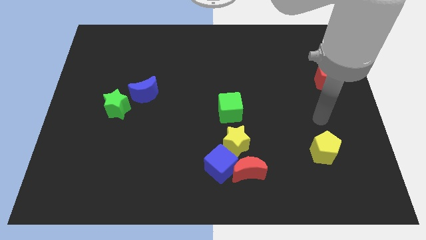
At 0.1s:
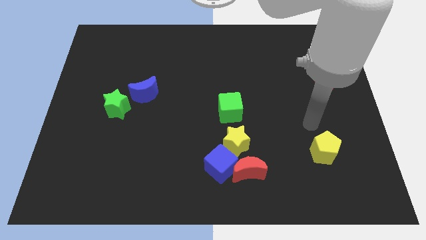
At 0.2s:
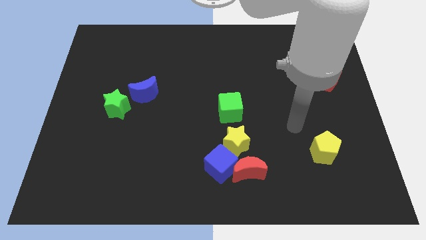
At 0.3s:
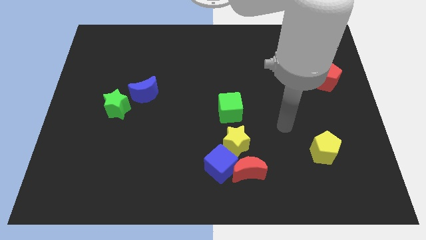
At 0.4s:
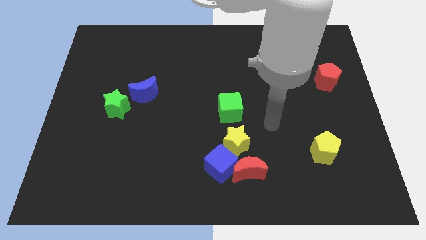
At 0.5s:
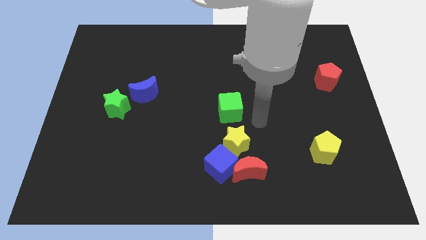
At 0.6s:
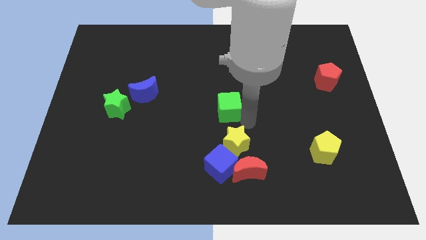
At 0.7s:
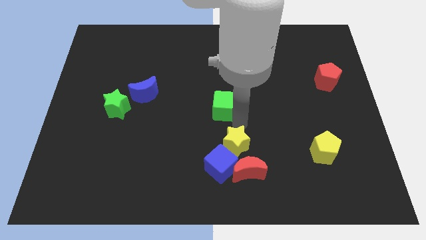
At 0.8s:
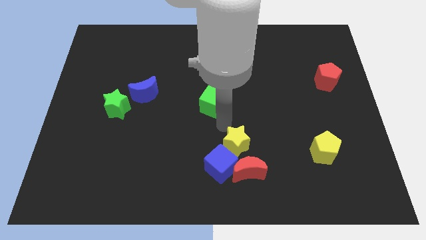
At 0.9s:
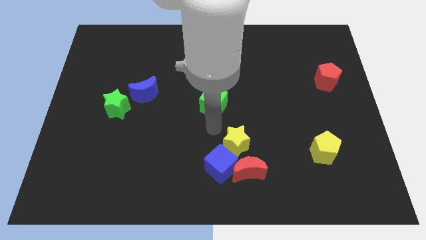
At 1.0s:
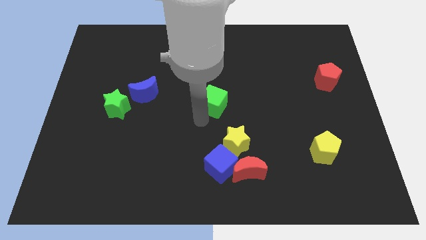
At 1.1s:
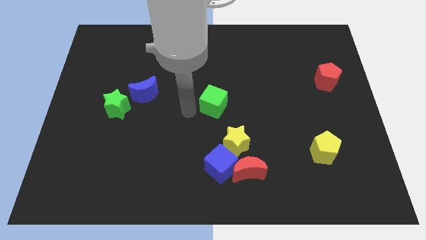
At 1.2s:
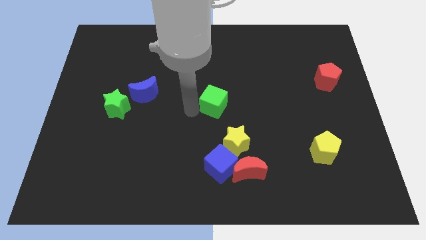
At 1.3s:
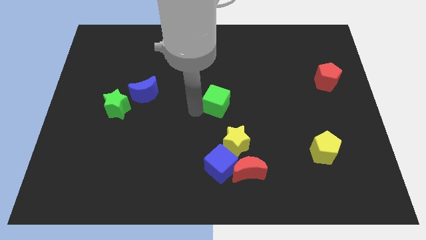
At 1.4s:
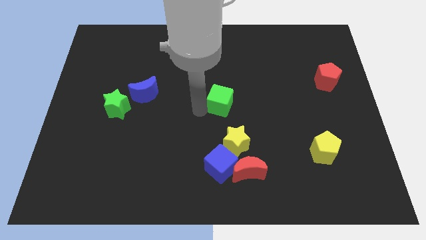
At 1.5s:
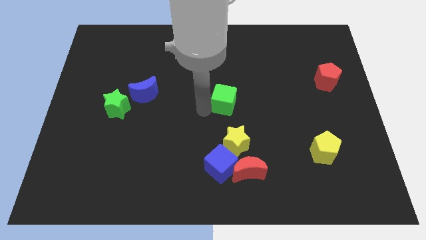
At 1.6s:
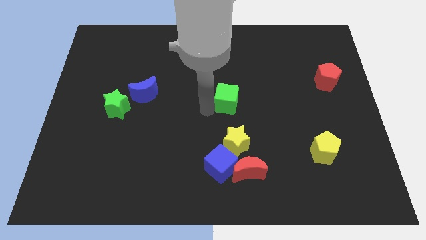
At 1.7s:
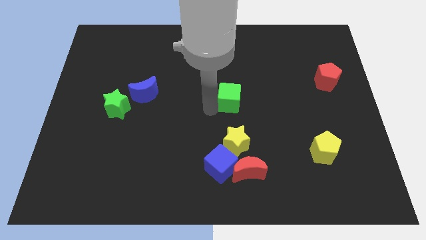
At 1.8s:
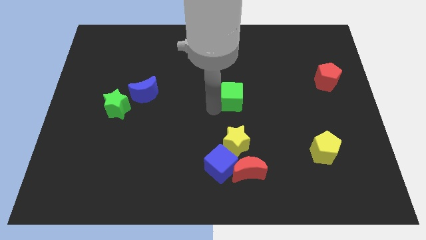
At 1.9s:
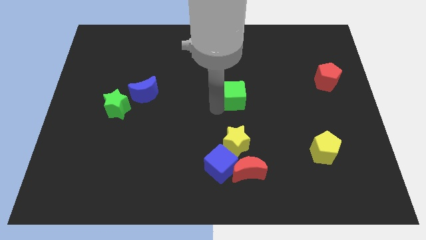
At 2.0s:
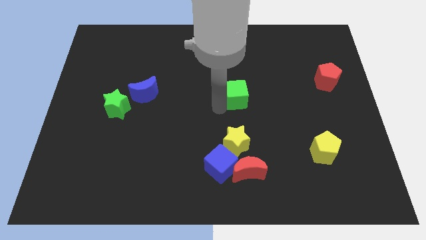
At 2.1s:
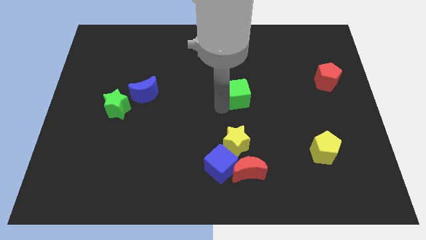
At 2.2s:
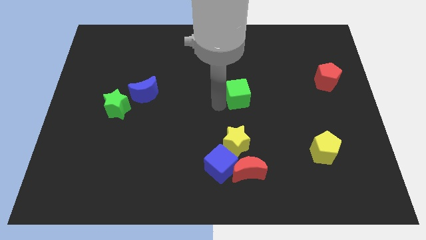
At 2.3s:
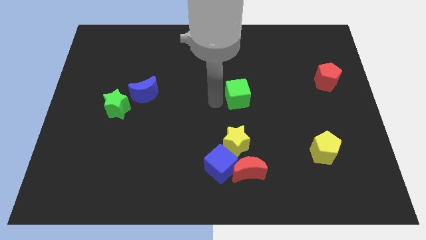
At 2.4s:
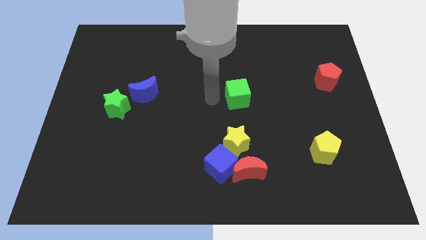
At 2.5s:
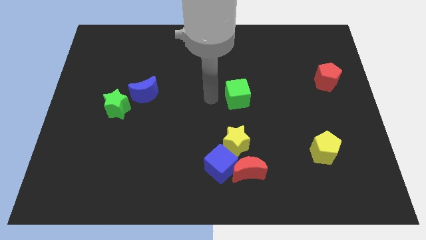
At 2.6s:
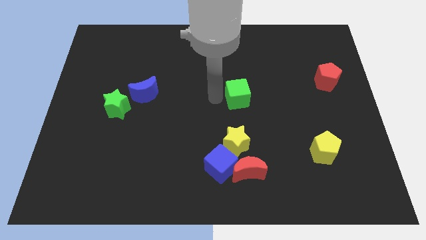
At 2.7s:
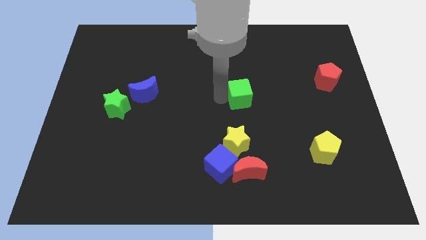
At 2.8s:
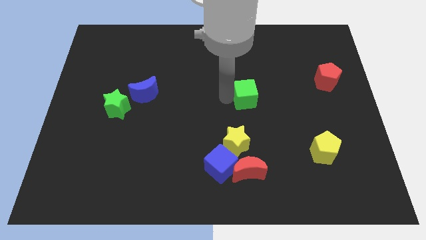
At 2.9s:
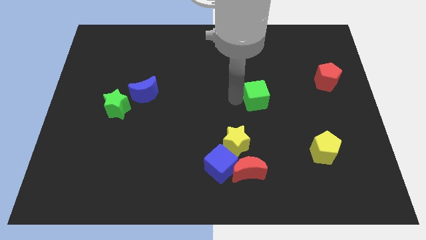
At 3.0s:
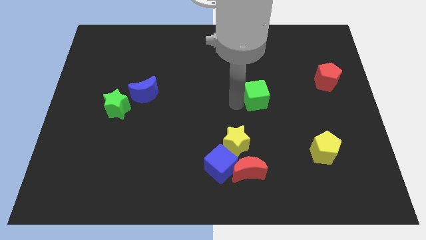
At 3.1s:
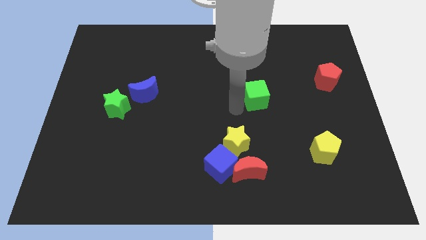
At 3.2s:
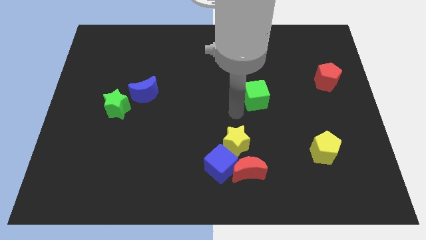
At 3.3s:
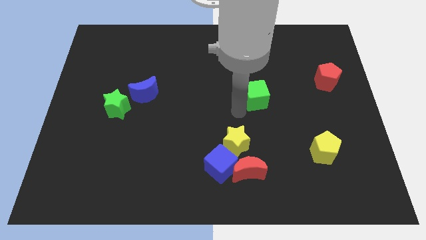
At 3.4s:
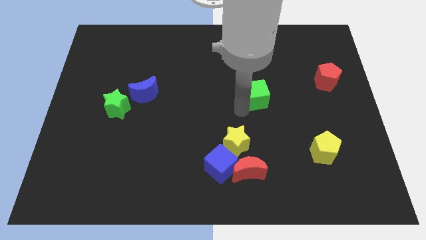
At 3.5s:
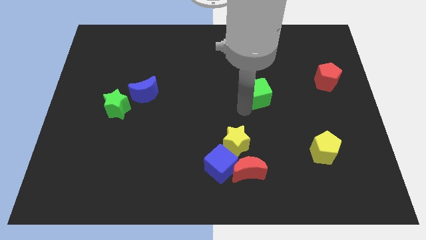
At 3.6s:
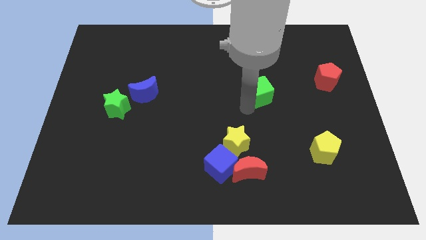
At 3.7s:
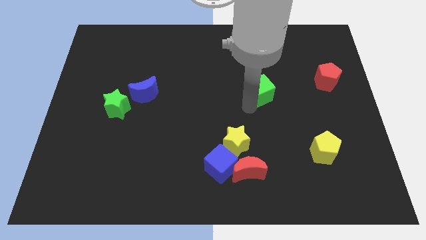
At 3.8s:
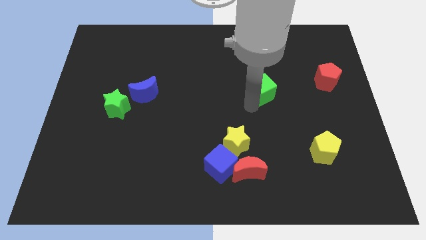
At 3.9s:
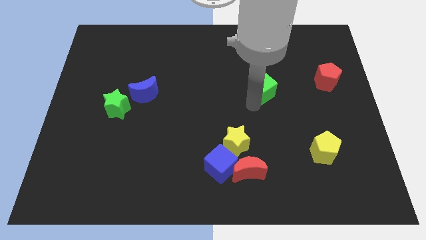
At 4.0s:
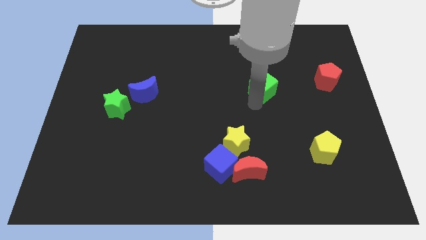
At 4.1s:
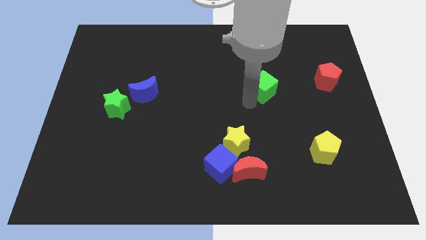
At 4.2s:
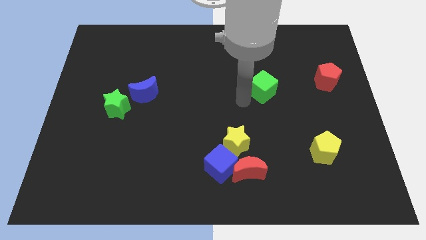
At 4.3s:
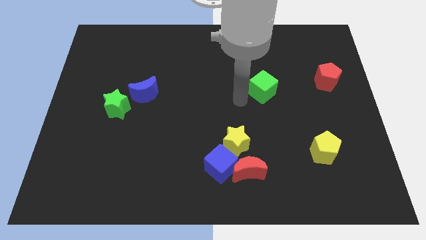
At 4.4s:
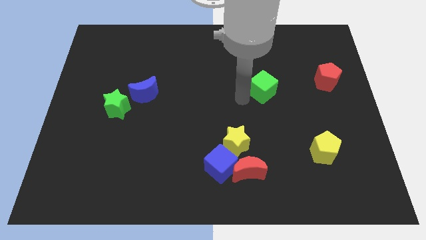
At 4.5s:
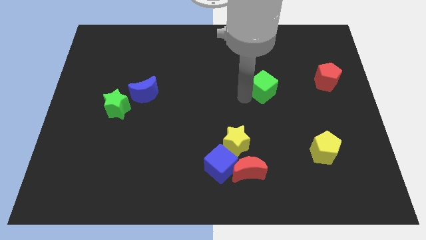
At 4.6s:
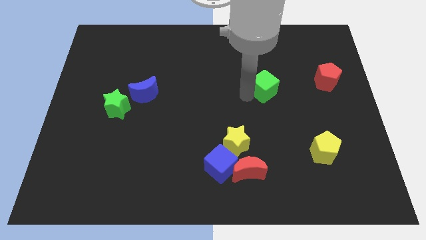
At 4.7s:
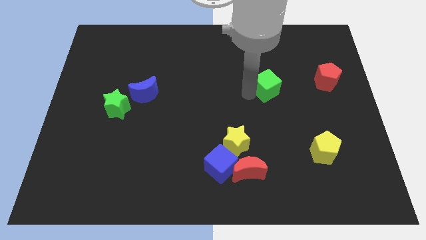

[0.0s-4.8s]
push the green cube left of the red pentagon

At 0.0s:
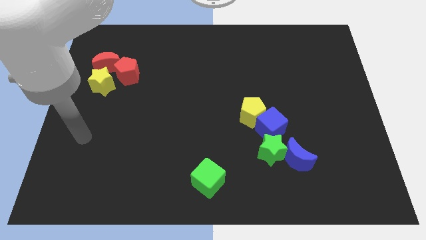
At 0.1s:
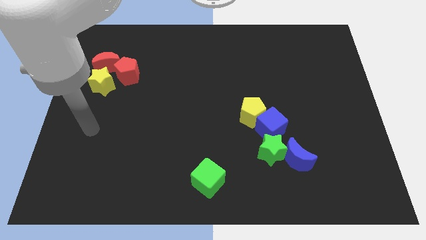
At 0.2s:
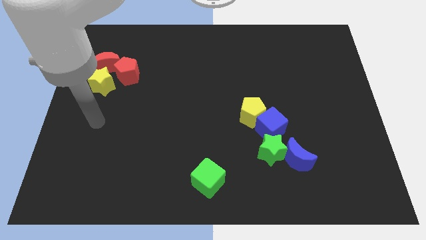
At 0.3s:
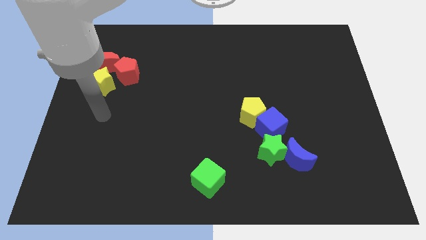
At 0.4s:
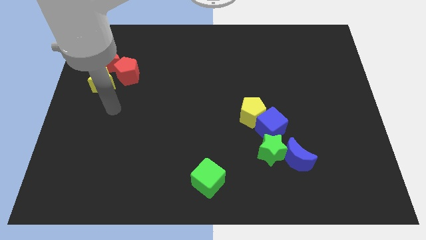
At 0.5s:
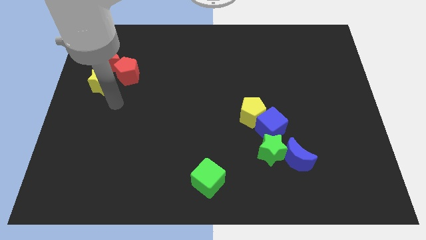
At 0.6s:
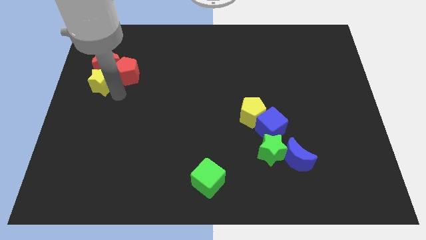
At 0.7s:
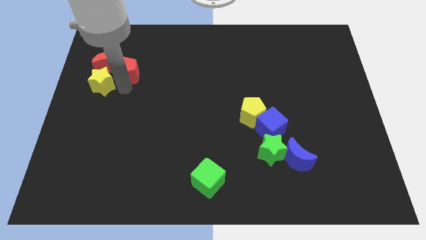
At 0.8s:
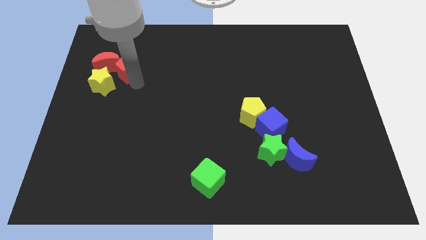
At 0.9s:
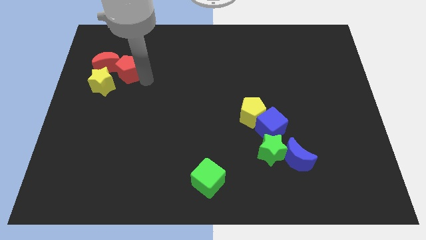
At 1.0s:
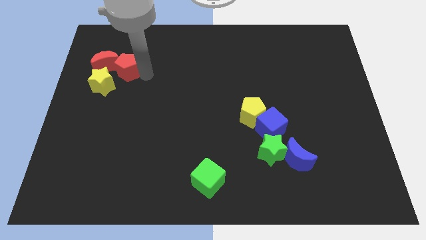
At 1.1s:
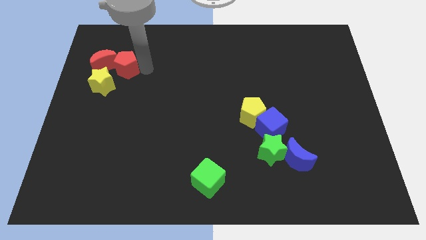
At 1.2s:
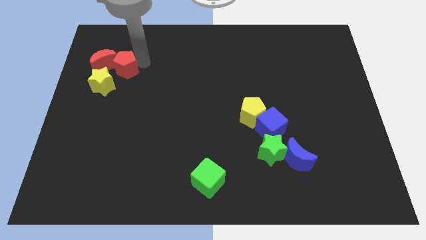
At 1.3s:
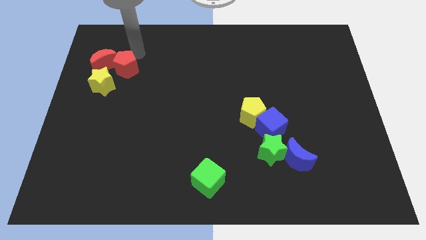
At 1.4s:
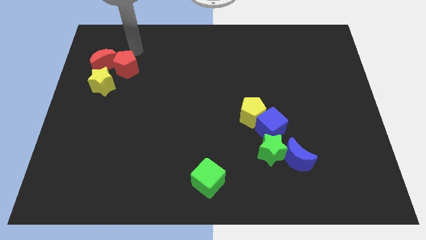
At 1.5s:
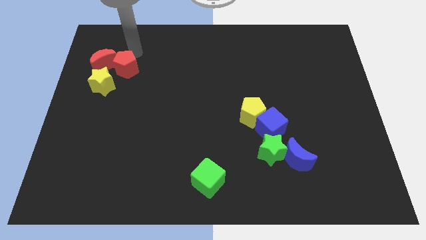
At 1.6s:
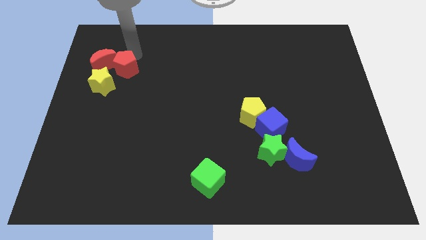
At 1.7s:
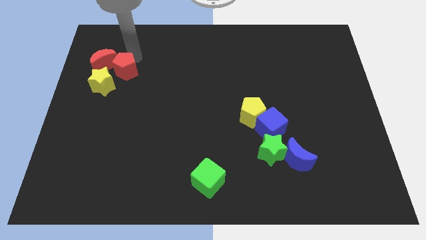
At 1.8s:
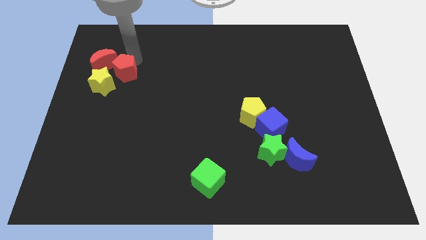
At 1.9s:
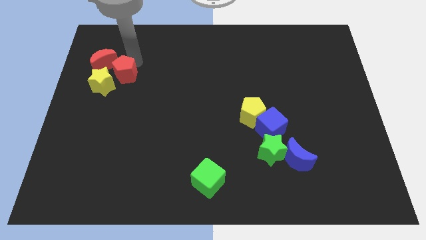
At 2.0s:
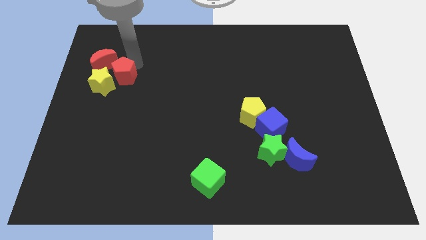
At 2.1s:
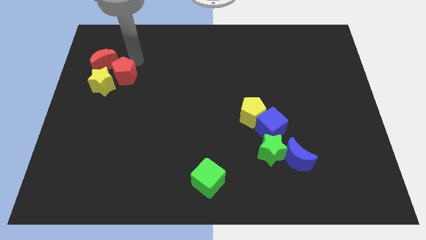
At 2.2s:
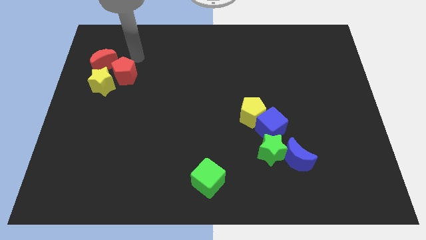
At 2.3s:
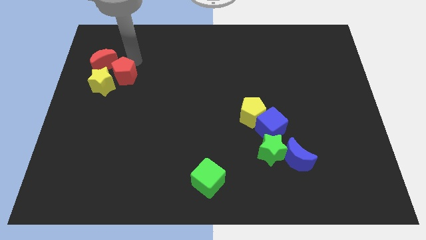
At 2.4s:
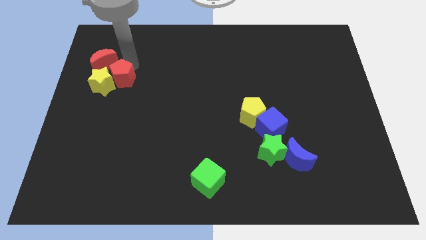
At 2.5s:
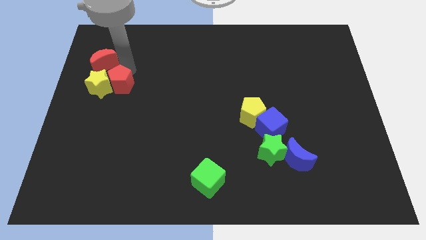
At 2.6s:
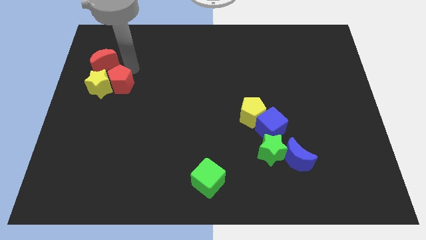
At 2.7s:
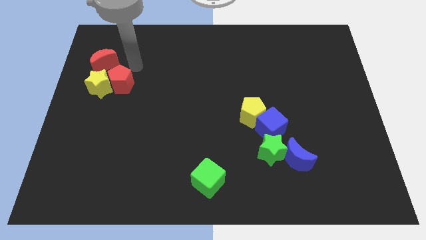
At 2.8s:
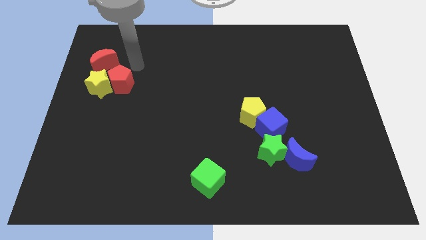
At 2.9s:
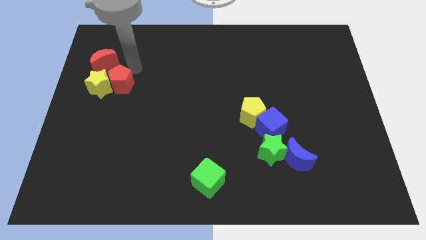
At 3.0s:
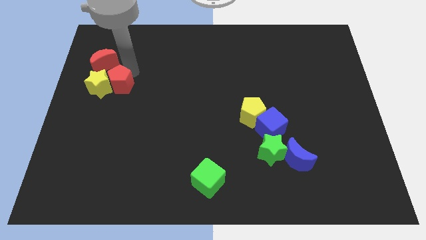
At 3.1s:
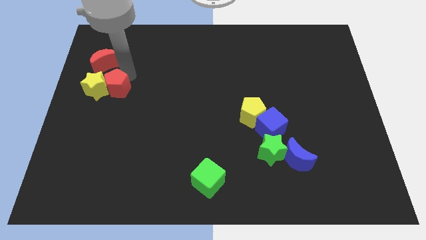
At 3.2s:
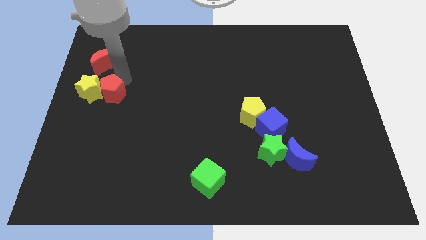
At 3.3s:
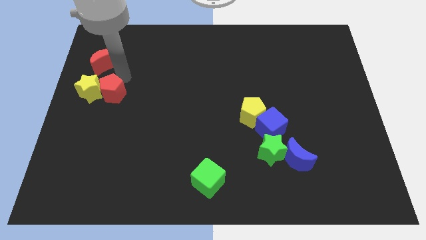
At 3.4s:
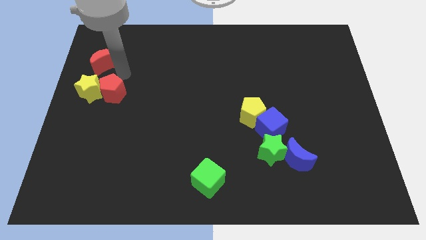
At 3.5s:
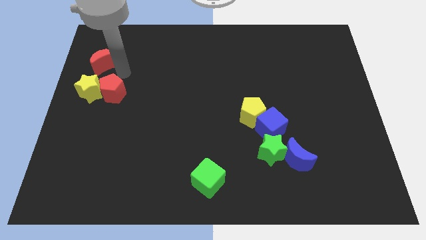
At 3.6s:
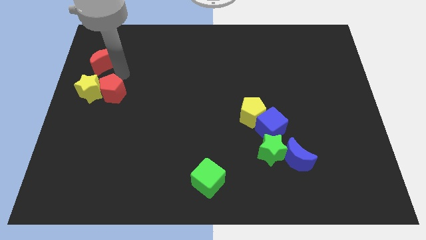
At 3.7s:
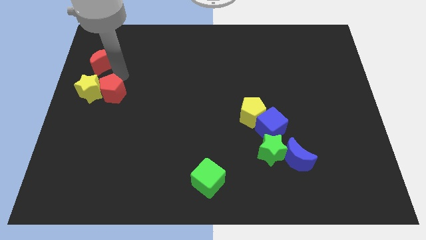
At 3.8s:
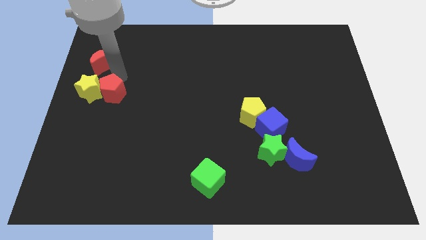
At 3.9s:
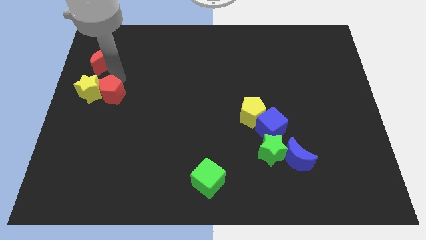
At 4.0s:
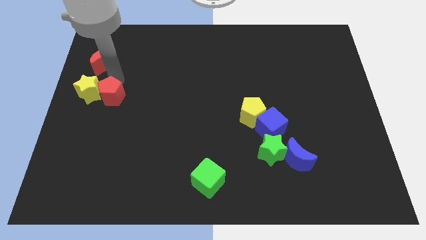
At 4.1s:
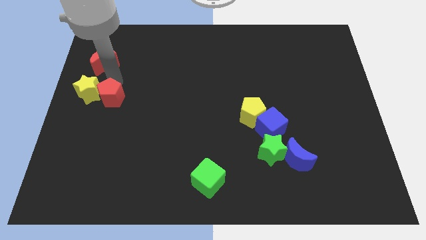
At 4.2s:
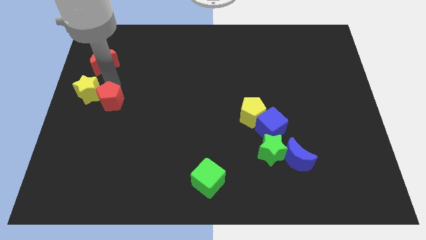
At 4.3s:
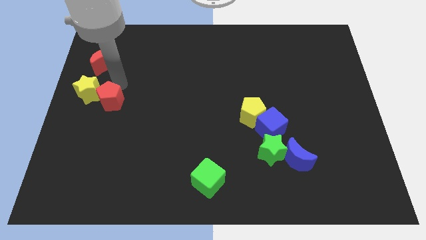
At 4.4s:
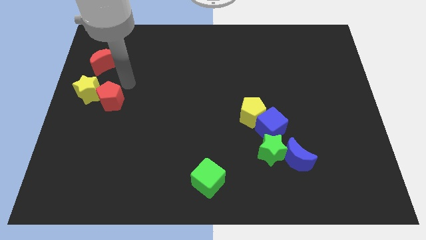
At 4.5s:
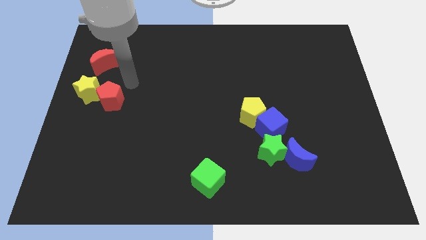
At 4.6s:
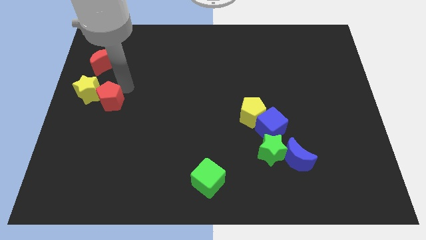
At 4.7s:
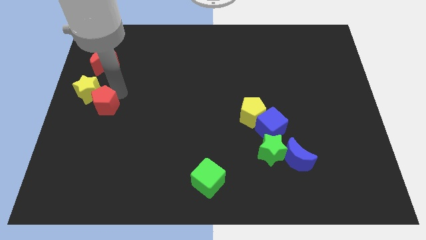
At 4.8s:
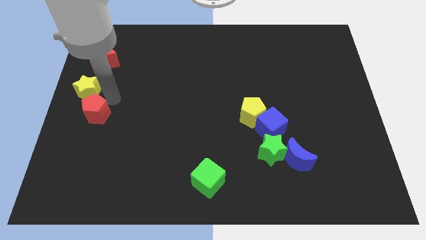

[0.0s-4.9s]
move the red pentagon to the bottom side of the yellow star
